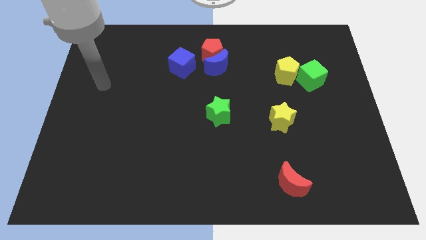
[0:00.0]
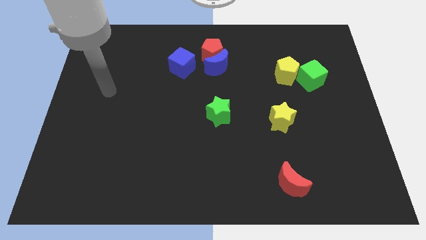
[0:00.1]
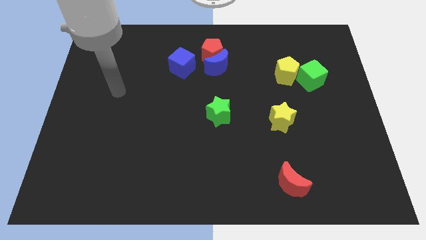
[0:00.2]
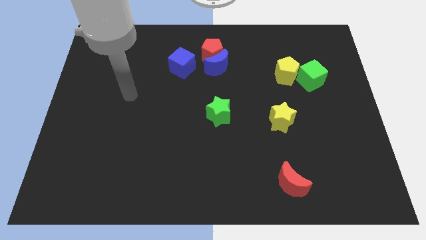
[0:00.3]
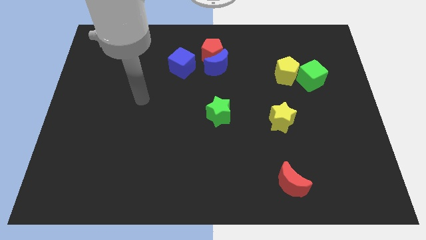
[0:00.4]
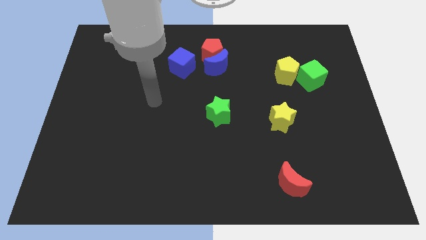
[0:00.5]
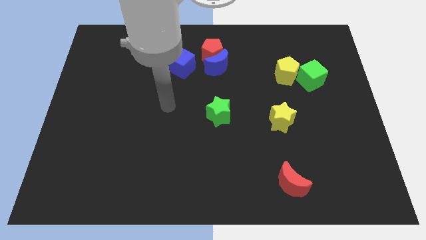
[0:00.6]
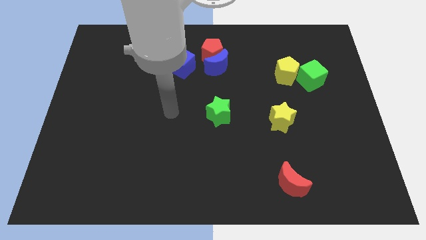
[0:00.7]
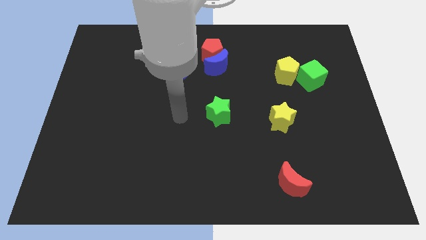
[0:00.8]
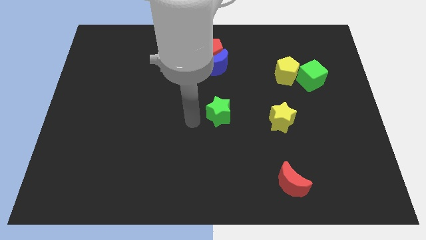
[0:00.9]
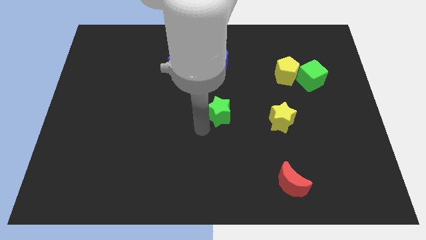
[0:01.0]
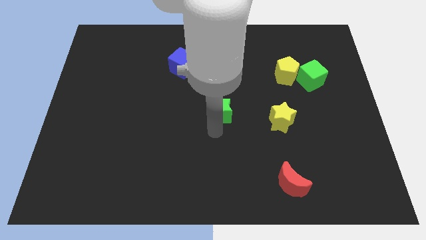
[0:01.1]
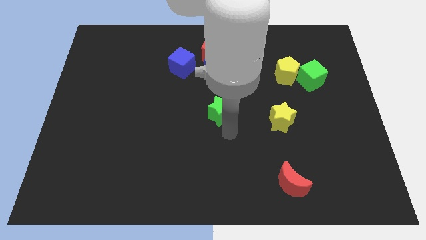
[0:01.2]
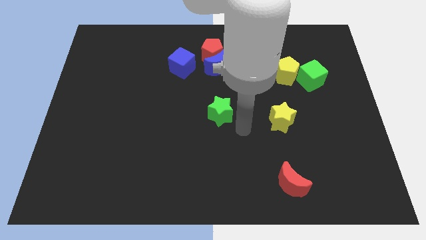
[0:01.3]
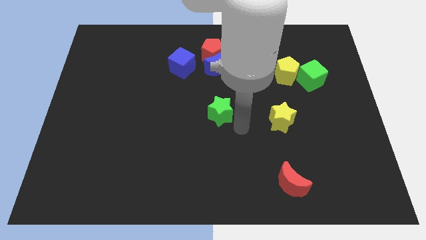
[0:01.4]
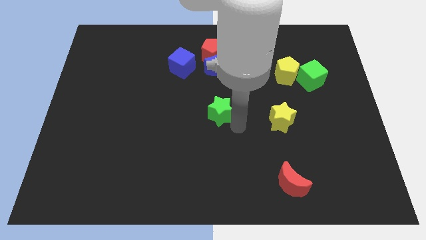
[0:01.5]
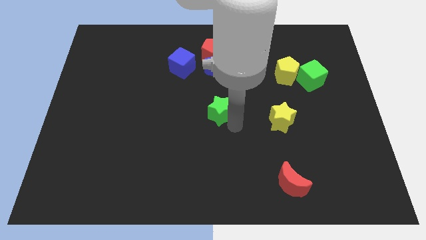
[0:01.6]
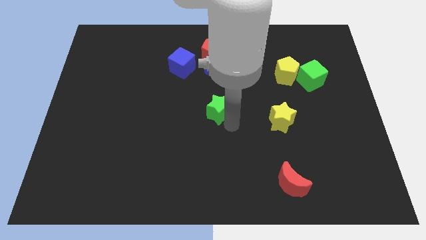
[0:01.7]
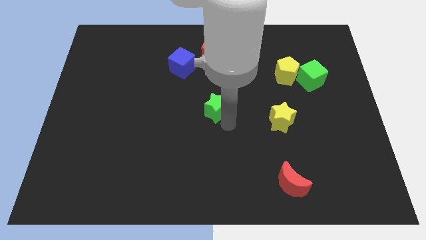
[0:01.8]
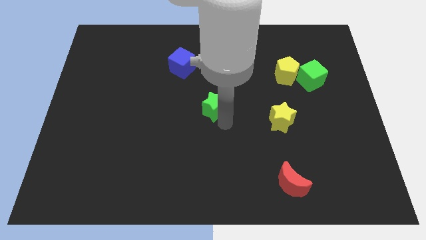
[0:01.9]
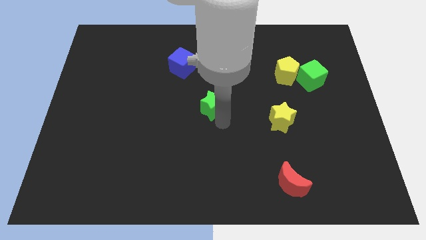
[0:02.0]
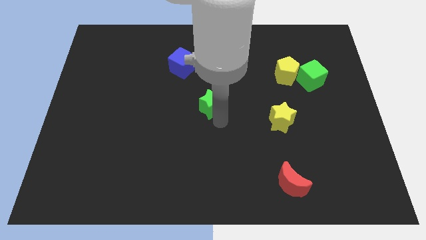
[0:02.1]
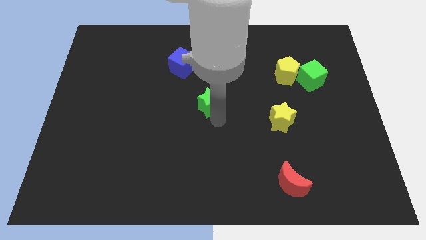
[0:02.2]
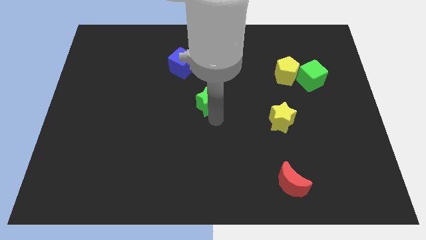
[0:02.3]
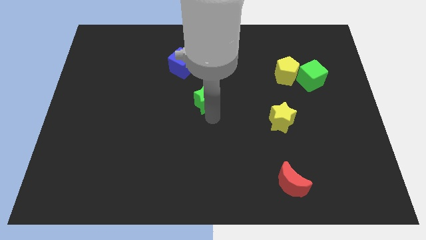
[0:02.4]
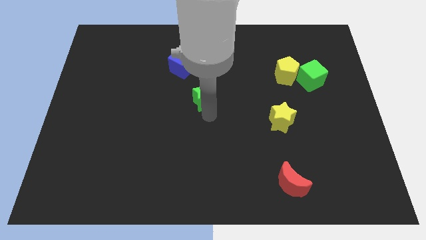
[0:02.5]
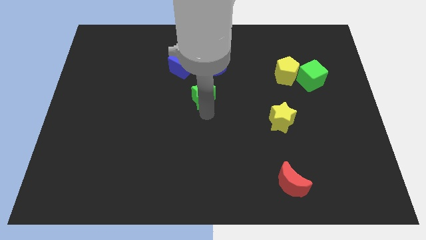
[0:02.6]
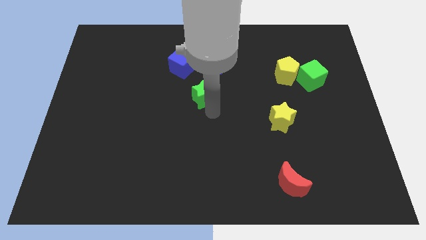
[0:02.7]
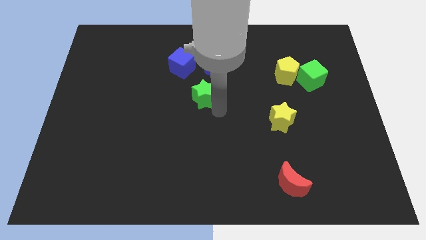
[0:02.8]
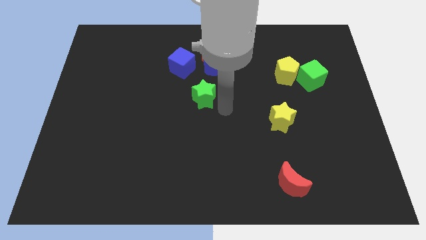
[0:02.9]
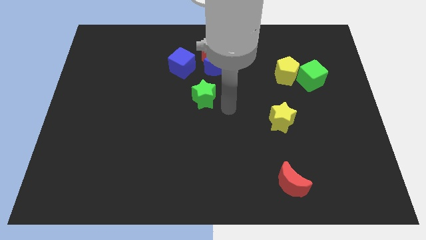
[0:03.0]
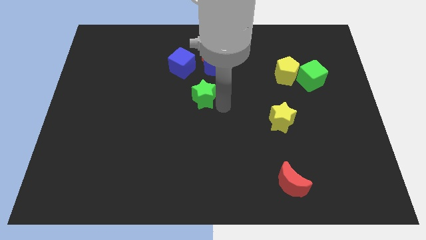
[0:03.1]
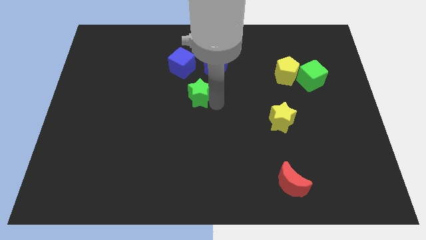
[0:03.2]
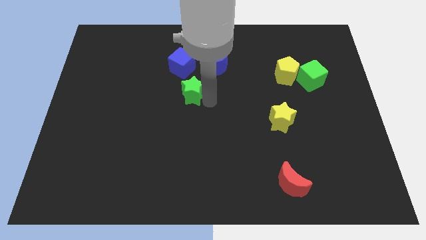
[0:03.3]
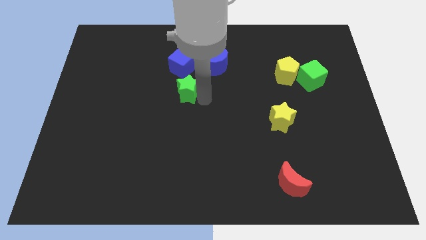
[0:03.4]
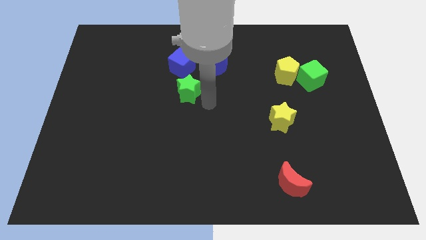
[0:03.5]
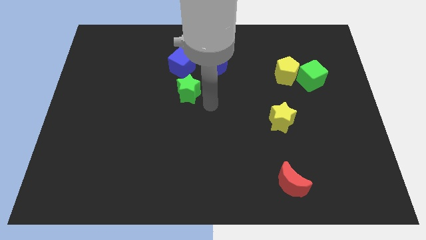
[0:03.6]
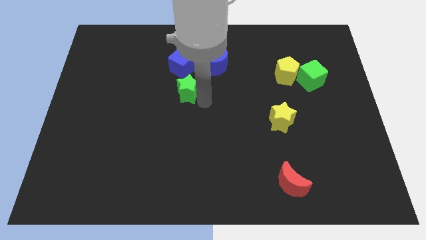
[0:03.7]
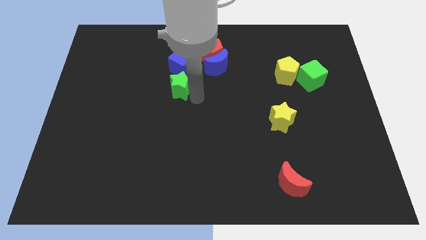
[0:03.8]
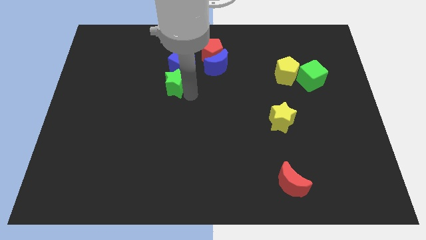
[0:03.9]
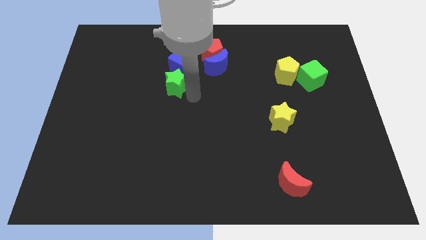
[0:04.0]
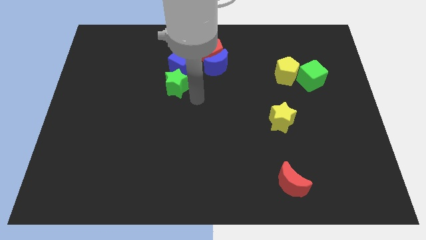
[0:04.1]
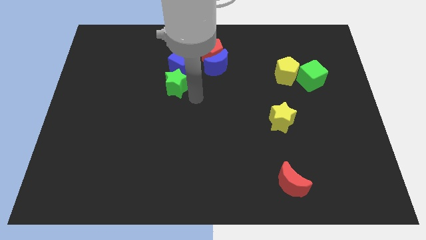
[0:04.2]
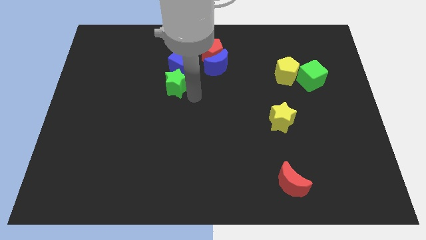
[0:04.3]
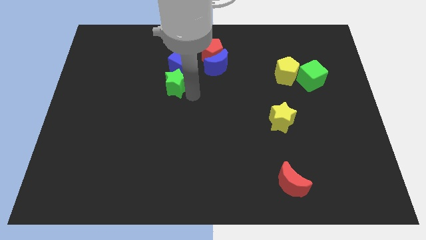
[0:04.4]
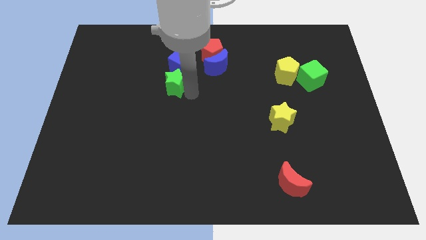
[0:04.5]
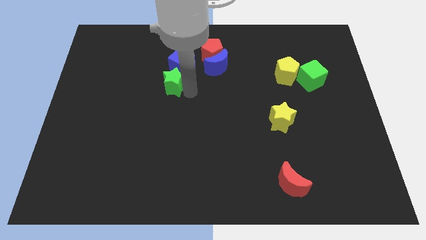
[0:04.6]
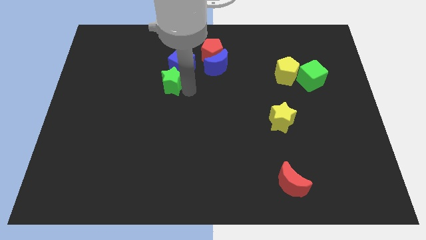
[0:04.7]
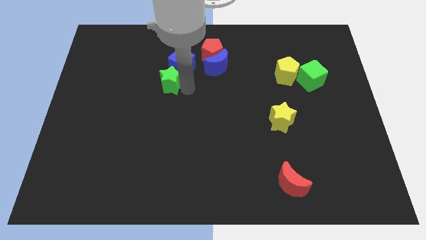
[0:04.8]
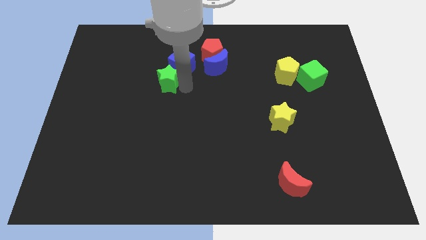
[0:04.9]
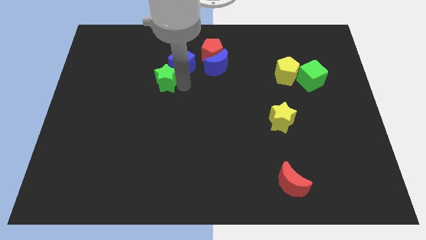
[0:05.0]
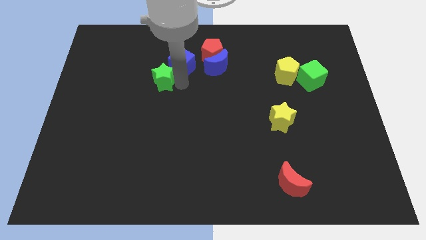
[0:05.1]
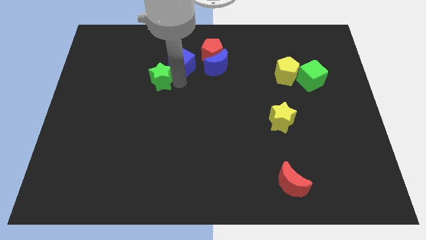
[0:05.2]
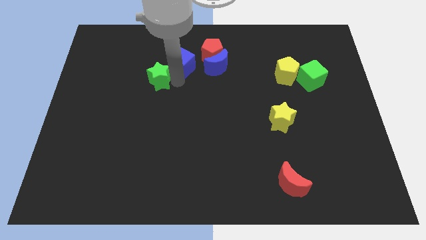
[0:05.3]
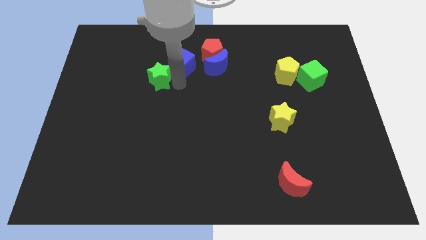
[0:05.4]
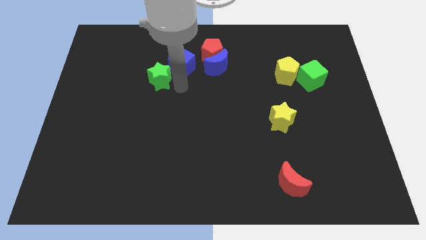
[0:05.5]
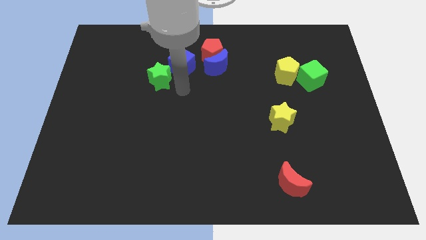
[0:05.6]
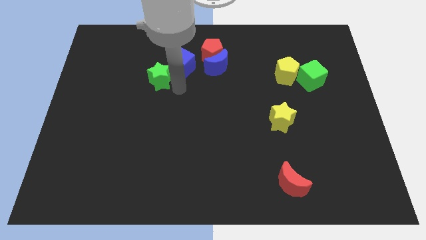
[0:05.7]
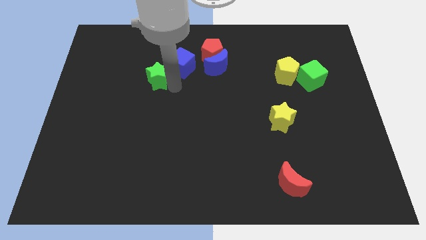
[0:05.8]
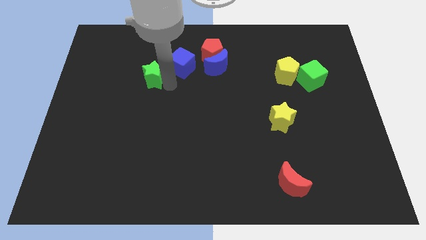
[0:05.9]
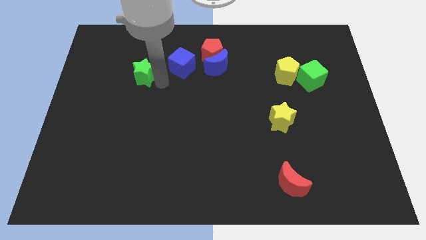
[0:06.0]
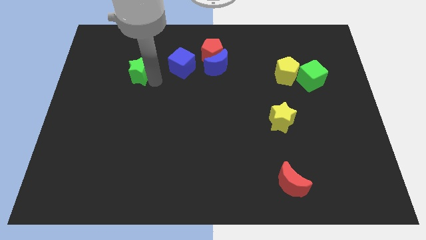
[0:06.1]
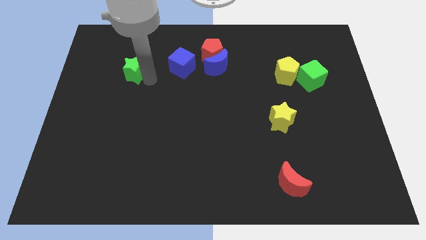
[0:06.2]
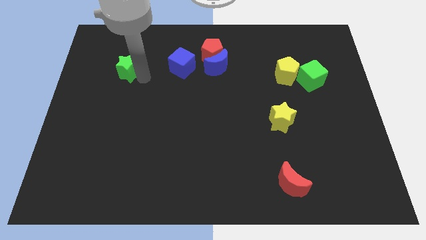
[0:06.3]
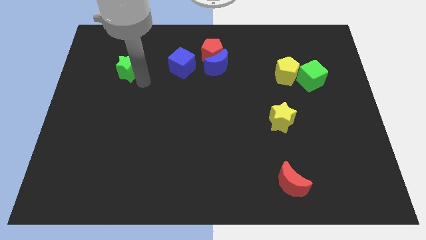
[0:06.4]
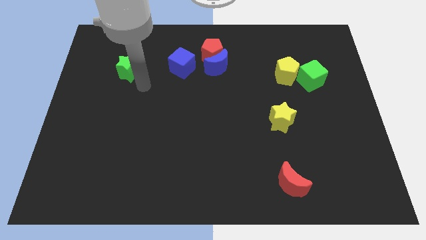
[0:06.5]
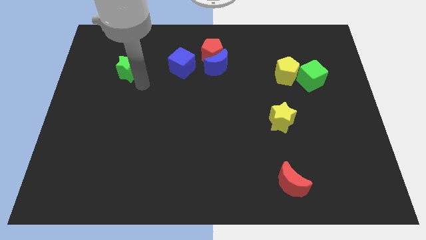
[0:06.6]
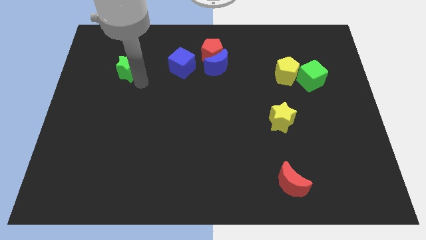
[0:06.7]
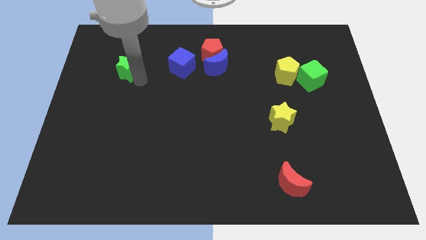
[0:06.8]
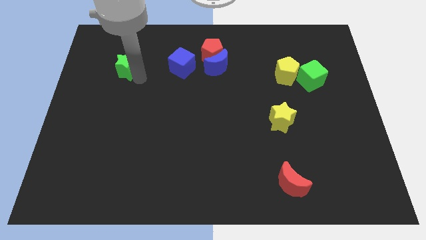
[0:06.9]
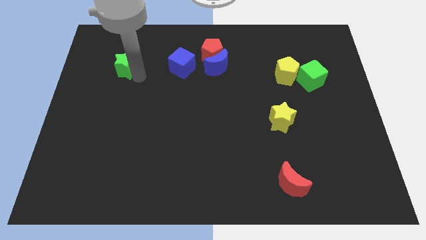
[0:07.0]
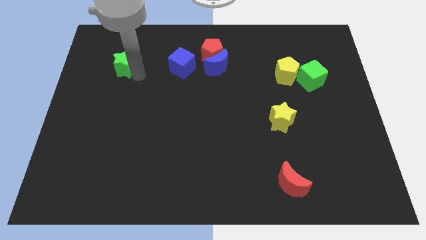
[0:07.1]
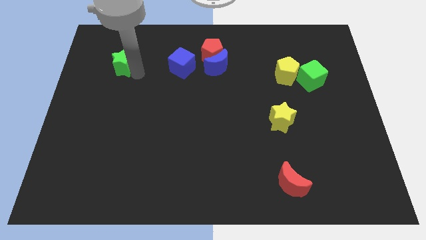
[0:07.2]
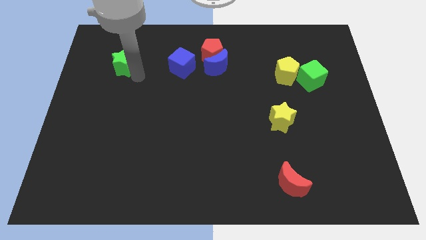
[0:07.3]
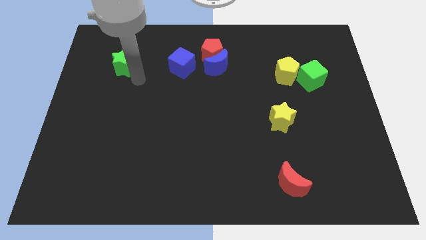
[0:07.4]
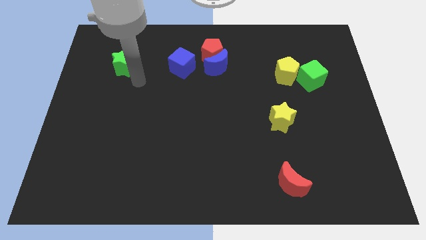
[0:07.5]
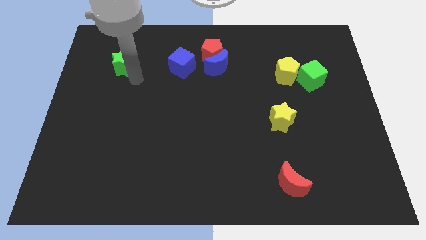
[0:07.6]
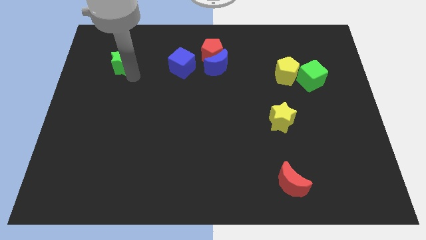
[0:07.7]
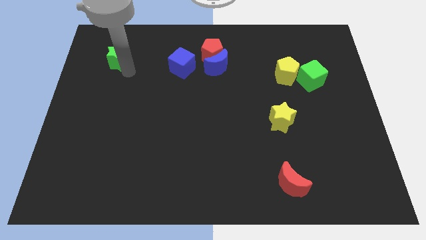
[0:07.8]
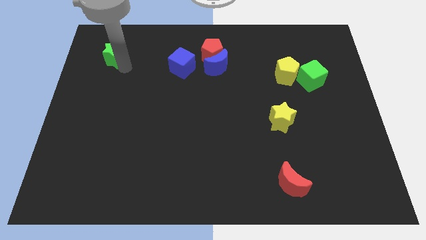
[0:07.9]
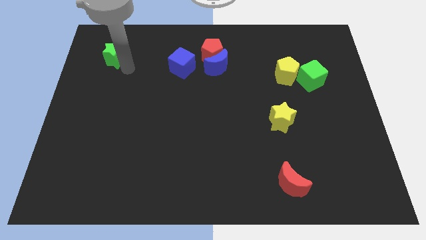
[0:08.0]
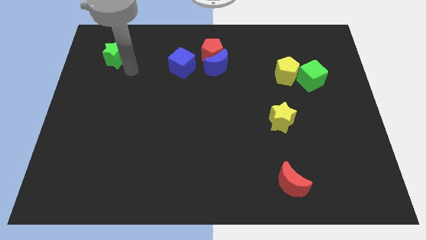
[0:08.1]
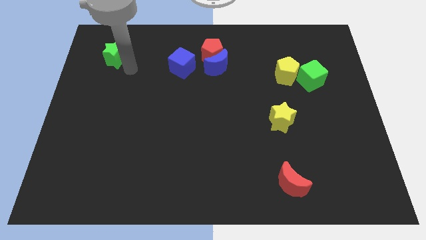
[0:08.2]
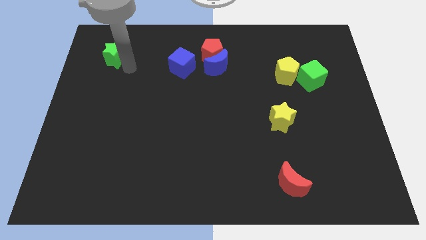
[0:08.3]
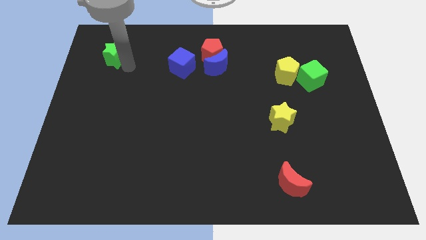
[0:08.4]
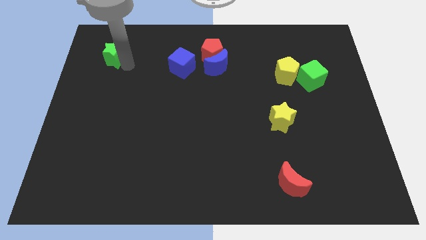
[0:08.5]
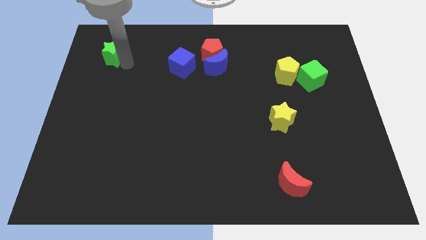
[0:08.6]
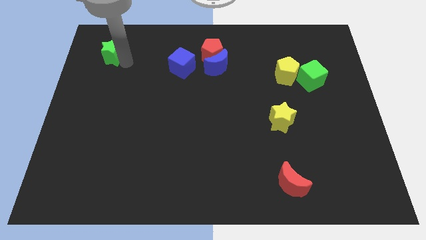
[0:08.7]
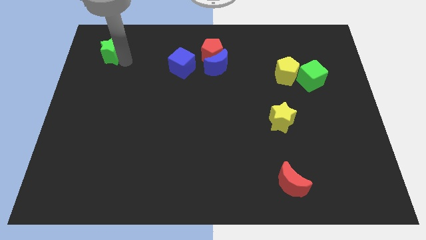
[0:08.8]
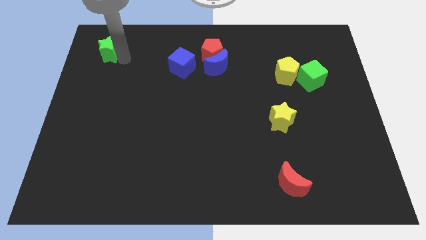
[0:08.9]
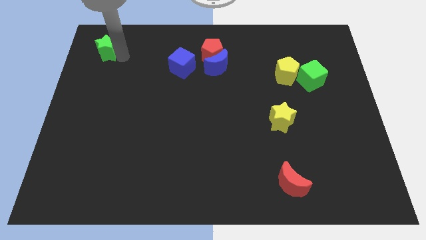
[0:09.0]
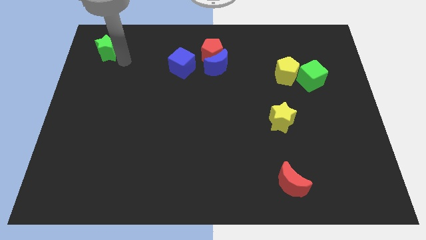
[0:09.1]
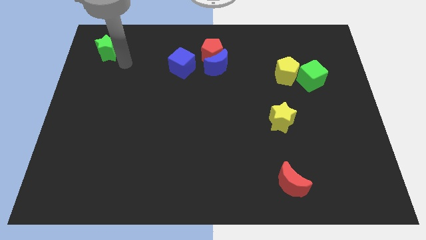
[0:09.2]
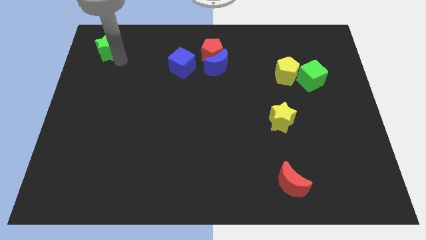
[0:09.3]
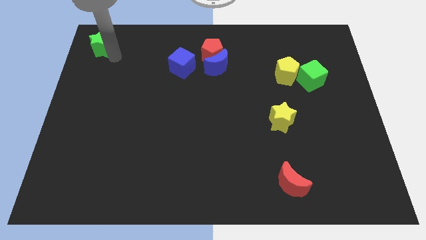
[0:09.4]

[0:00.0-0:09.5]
move the green star to the top left of the board
